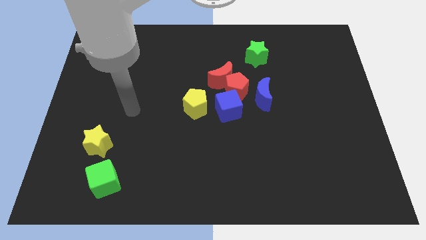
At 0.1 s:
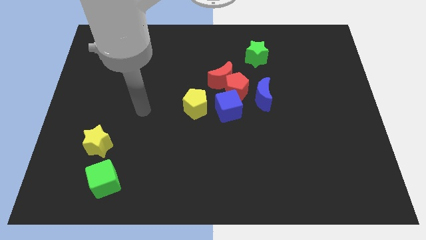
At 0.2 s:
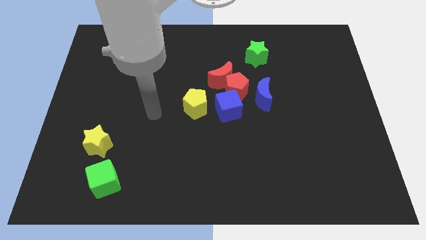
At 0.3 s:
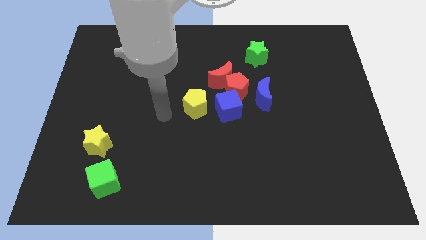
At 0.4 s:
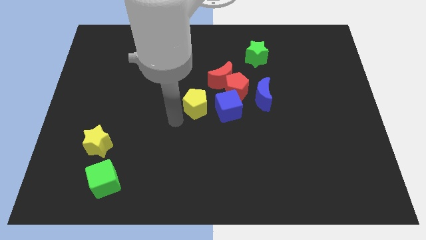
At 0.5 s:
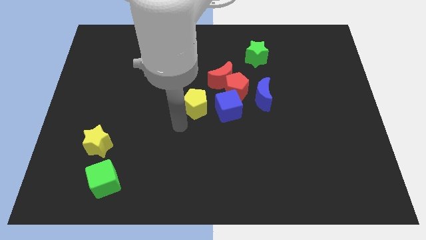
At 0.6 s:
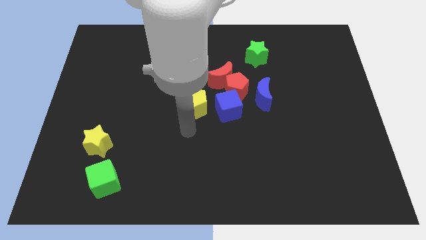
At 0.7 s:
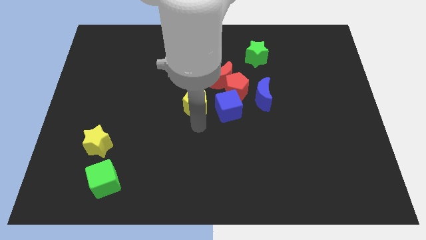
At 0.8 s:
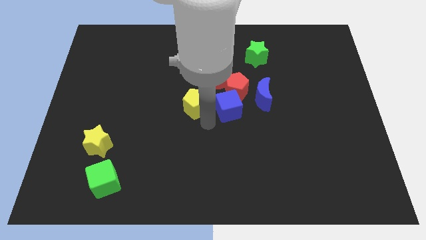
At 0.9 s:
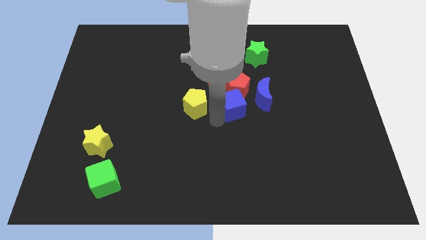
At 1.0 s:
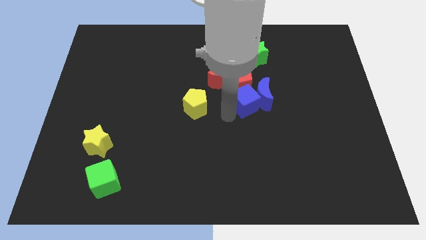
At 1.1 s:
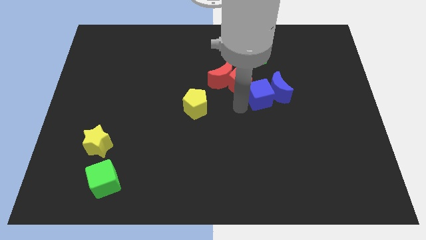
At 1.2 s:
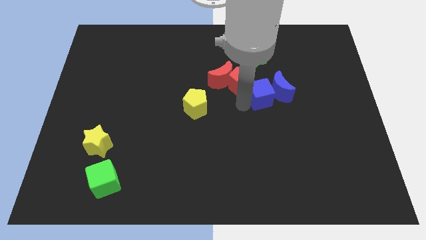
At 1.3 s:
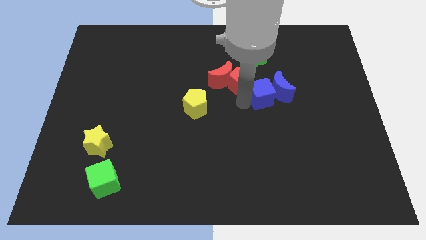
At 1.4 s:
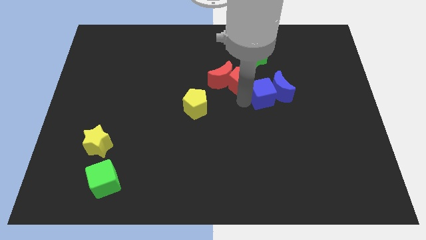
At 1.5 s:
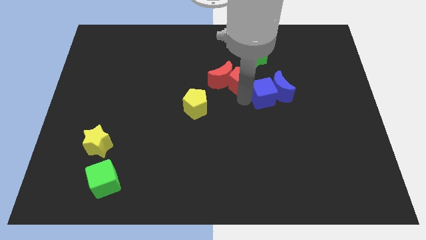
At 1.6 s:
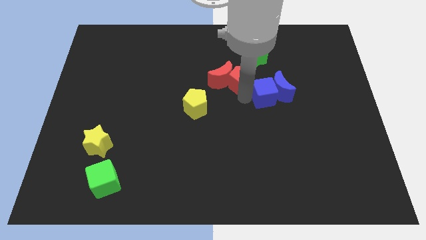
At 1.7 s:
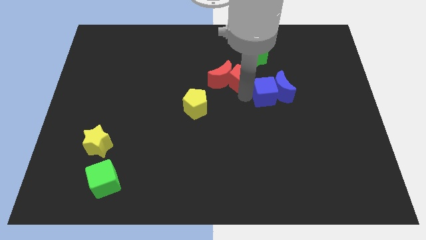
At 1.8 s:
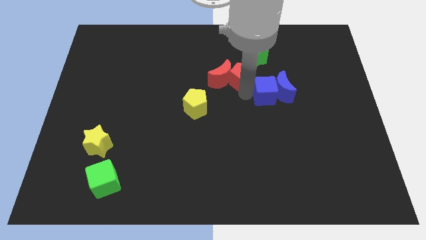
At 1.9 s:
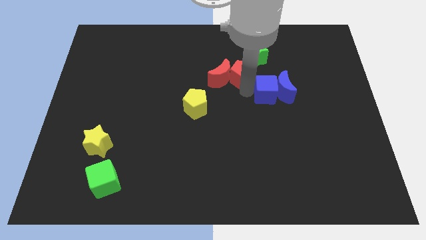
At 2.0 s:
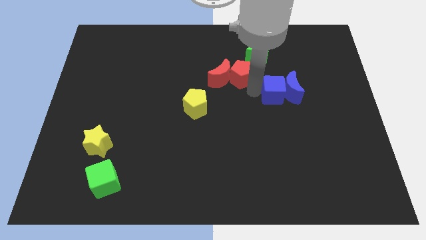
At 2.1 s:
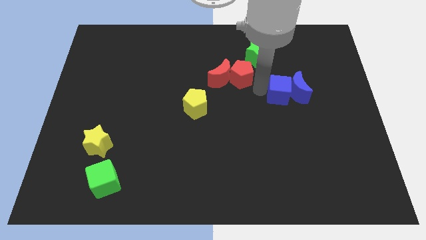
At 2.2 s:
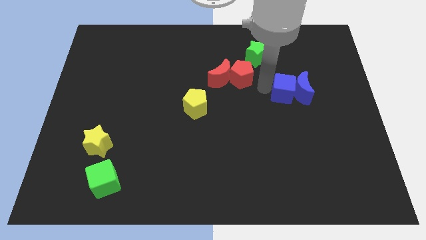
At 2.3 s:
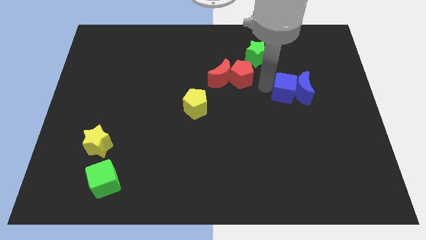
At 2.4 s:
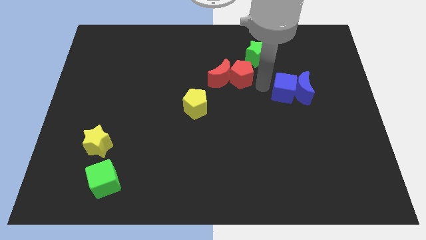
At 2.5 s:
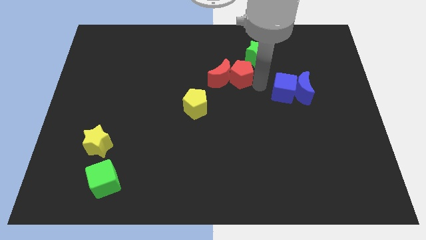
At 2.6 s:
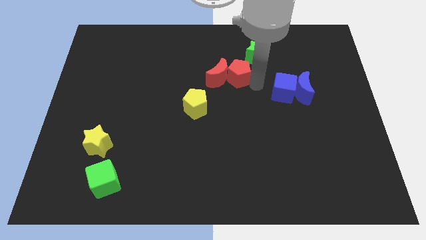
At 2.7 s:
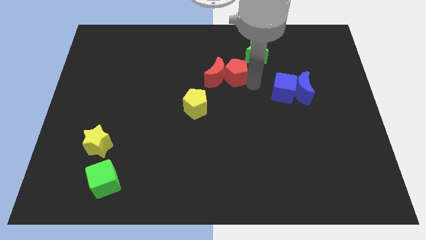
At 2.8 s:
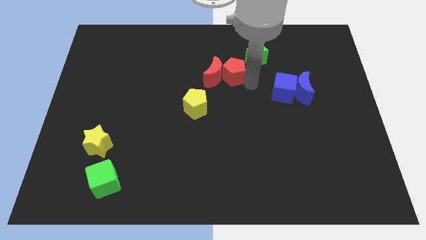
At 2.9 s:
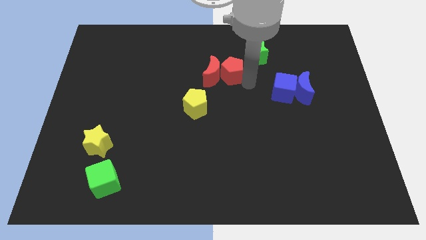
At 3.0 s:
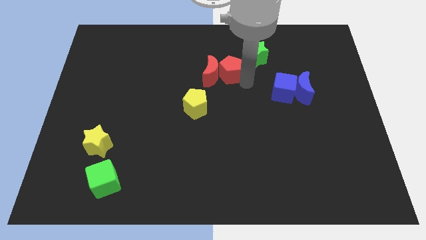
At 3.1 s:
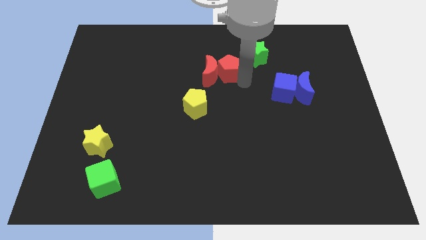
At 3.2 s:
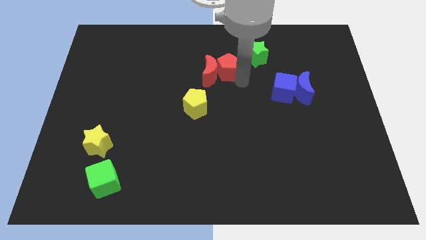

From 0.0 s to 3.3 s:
separate the red pentagon from the red moon, blue cube, and blue moon

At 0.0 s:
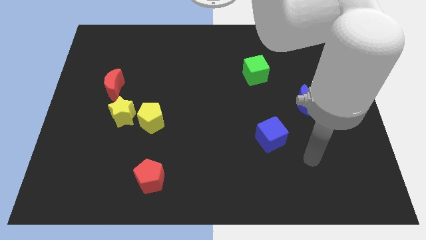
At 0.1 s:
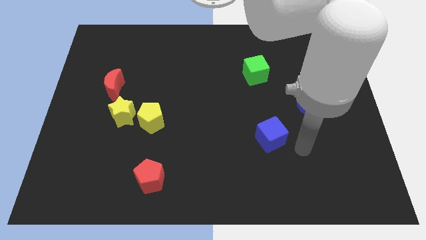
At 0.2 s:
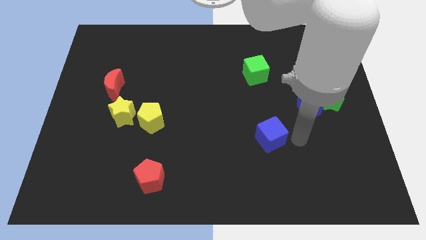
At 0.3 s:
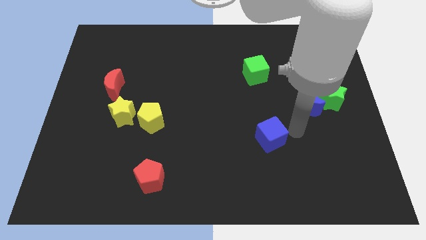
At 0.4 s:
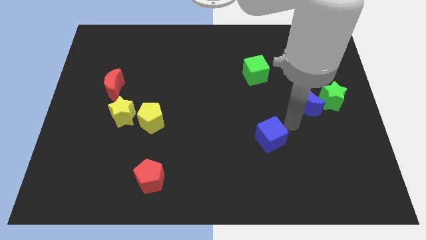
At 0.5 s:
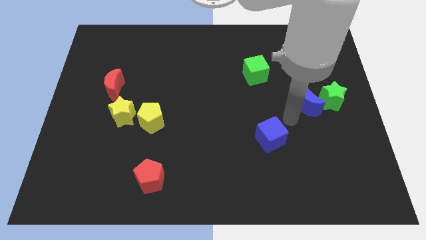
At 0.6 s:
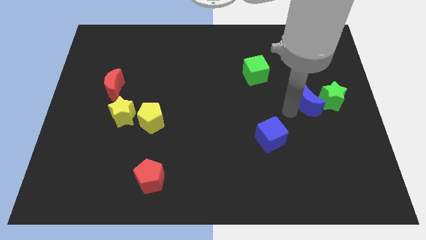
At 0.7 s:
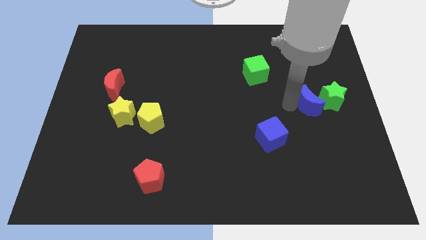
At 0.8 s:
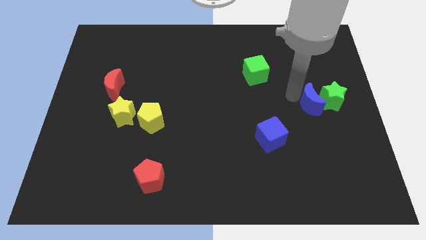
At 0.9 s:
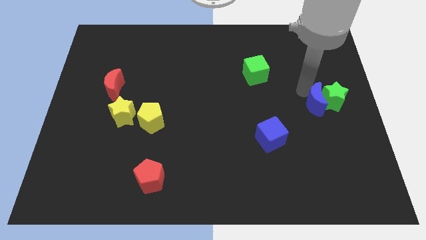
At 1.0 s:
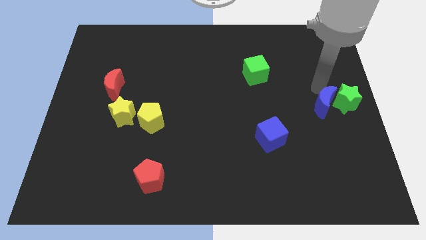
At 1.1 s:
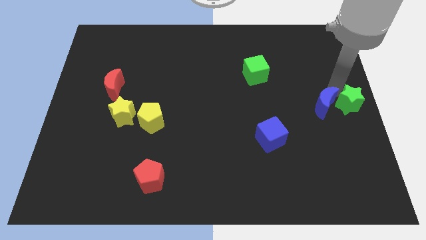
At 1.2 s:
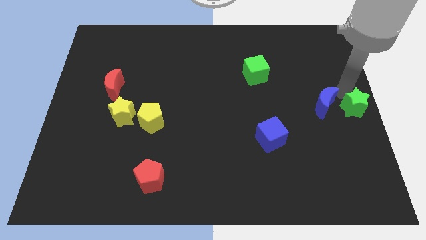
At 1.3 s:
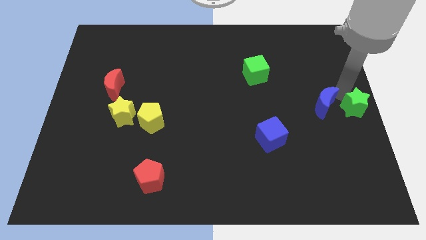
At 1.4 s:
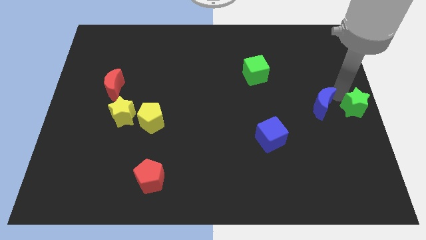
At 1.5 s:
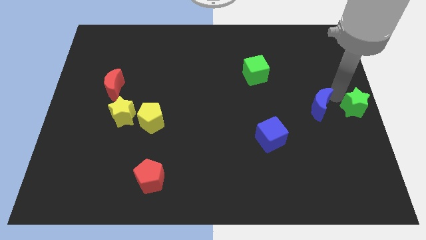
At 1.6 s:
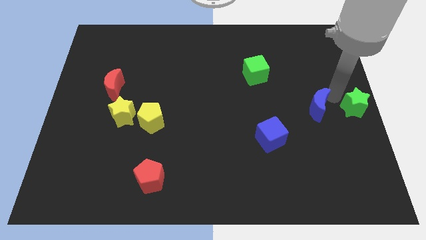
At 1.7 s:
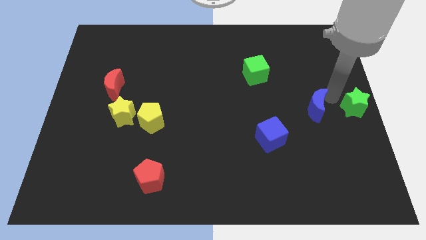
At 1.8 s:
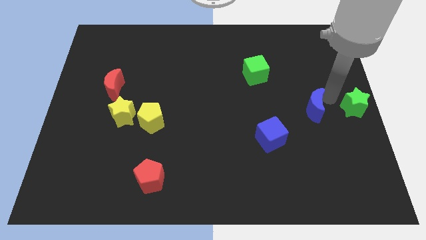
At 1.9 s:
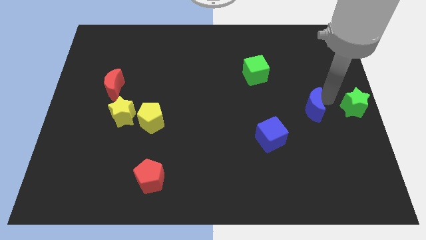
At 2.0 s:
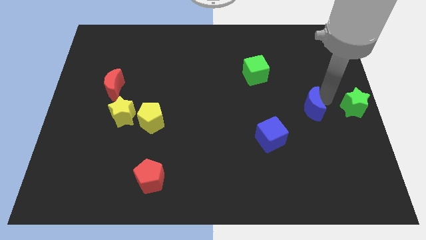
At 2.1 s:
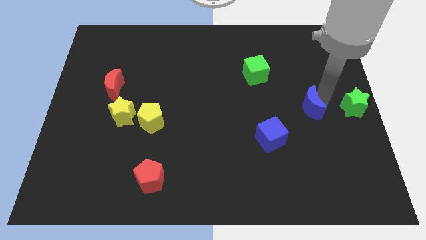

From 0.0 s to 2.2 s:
pull the blue moon apart from the green star

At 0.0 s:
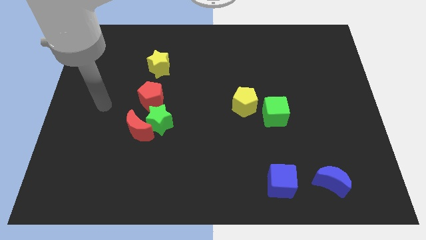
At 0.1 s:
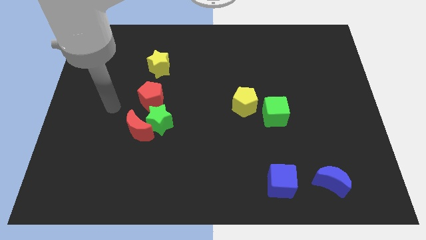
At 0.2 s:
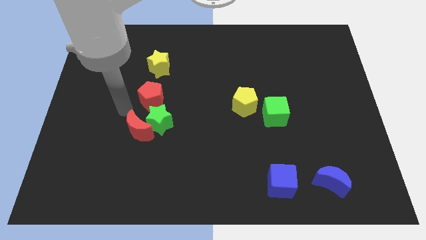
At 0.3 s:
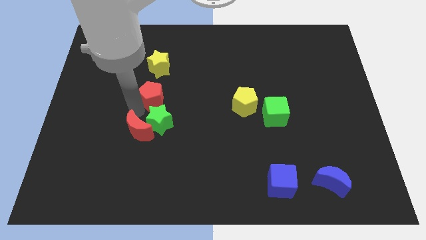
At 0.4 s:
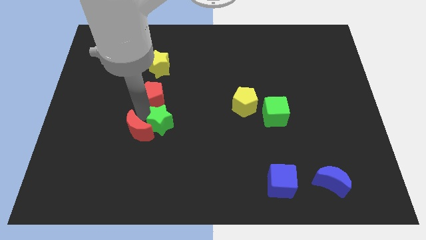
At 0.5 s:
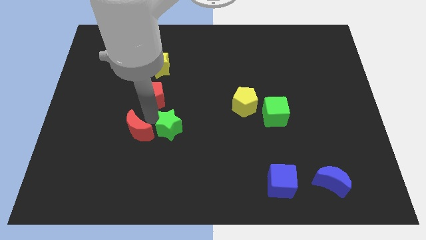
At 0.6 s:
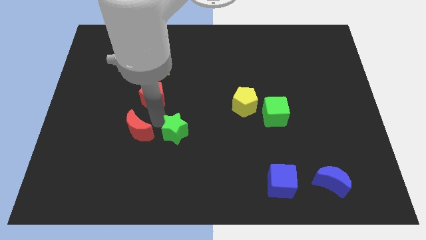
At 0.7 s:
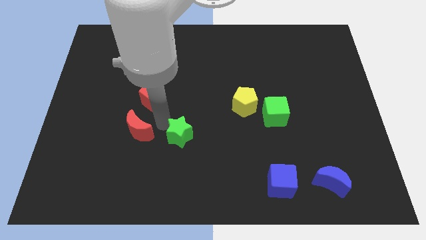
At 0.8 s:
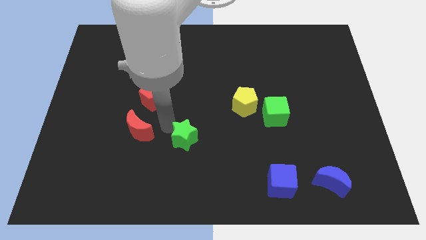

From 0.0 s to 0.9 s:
separate the green star from the red moon and red pentagon

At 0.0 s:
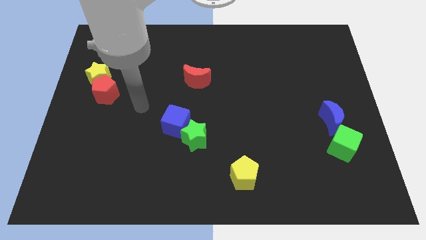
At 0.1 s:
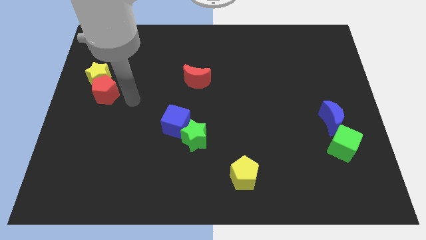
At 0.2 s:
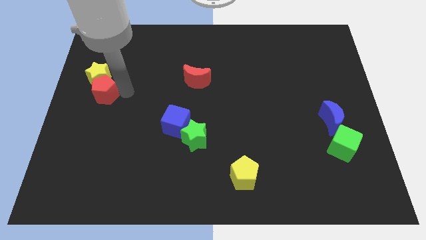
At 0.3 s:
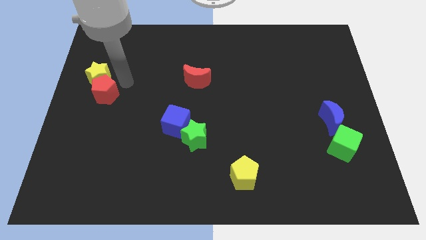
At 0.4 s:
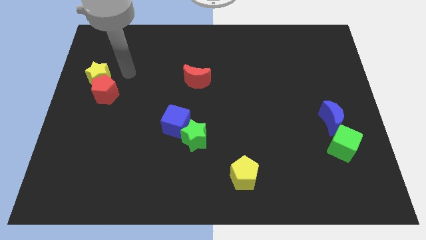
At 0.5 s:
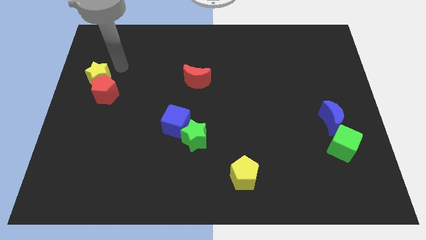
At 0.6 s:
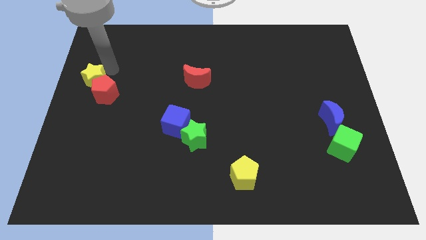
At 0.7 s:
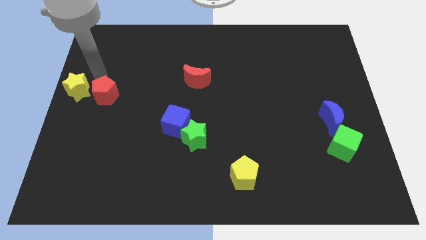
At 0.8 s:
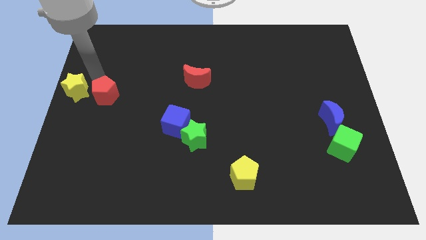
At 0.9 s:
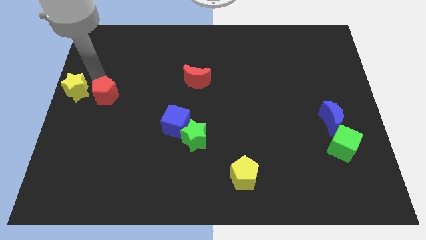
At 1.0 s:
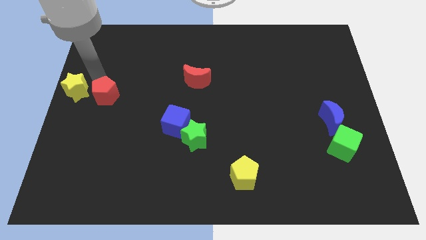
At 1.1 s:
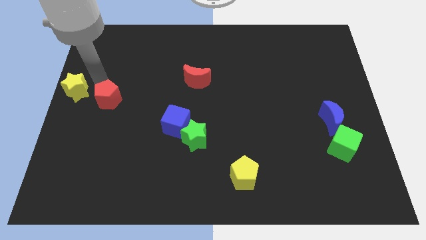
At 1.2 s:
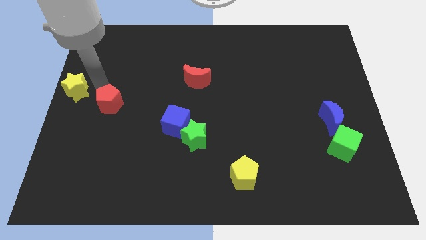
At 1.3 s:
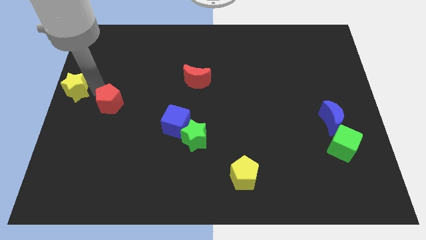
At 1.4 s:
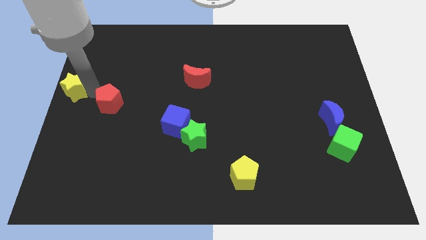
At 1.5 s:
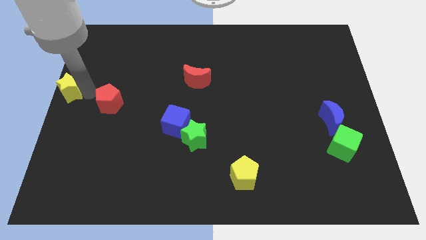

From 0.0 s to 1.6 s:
move the red pentagon away from the yellow star

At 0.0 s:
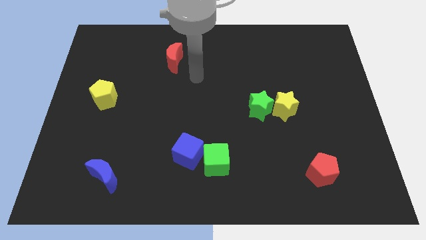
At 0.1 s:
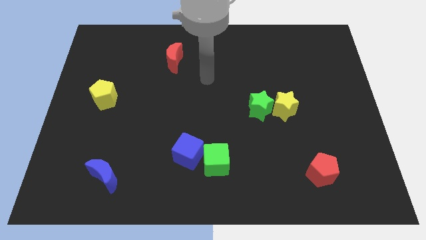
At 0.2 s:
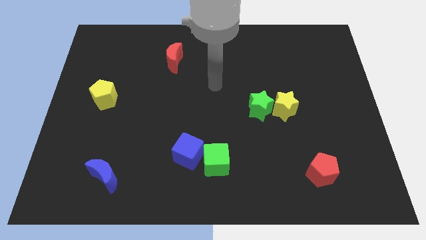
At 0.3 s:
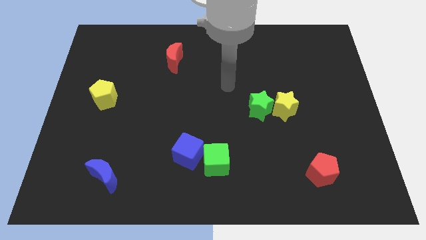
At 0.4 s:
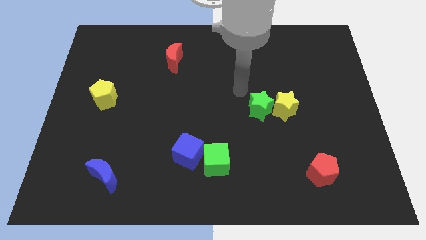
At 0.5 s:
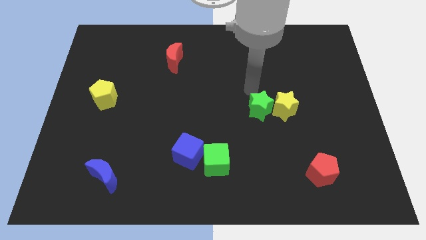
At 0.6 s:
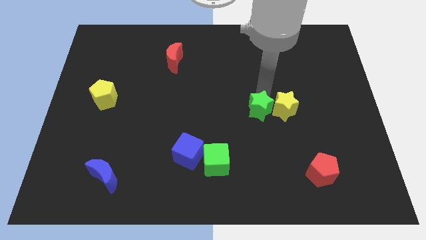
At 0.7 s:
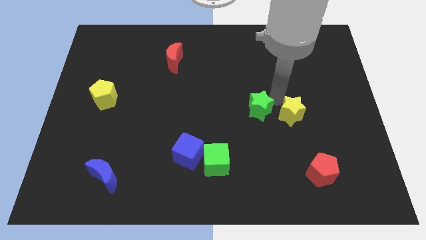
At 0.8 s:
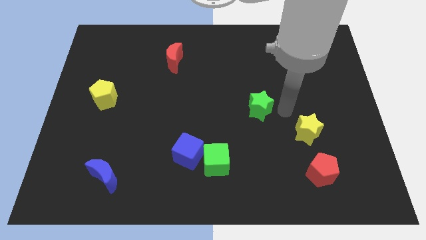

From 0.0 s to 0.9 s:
pull the green star apart from the yellow star

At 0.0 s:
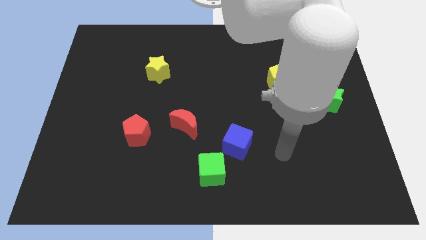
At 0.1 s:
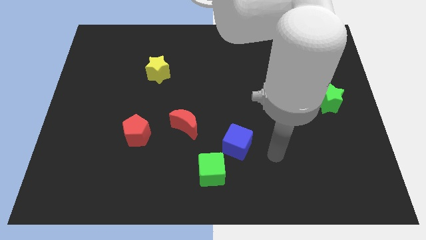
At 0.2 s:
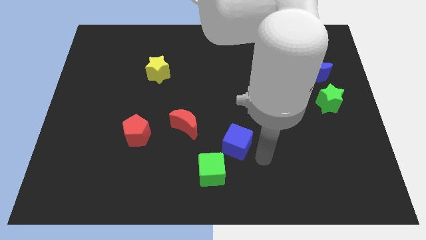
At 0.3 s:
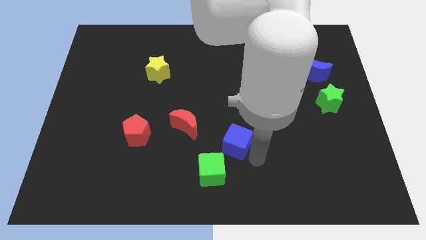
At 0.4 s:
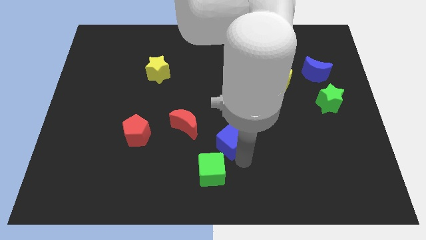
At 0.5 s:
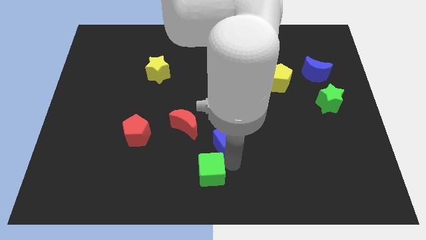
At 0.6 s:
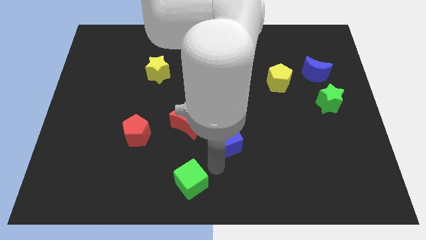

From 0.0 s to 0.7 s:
separate the blue cube from the green cube
